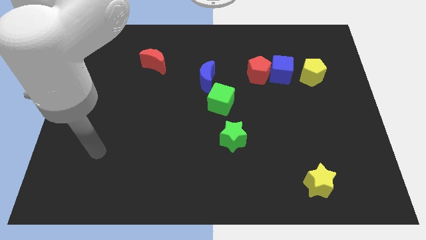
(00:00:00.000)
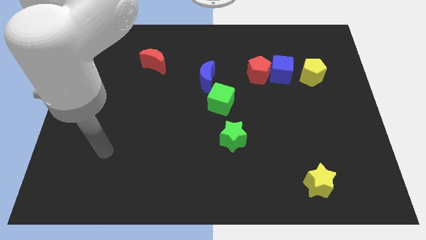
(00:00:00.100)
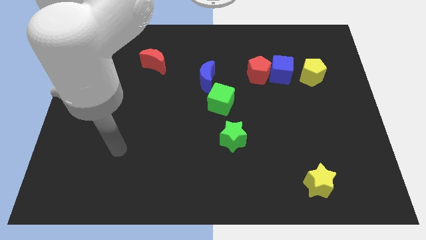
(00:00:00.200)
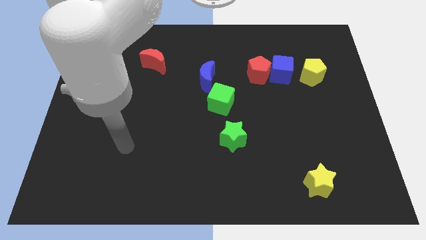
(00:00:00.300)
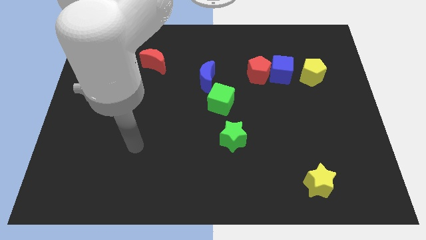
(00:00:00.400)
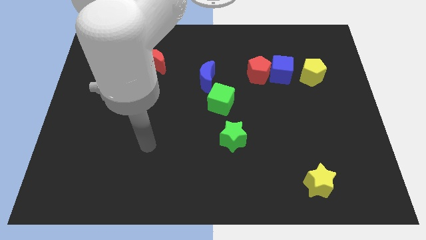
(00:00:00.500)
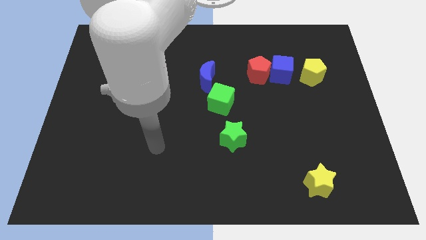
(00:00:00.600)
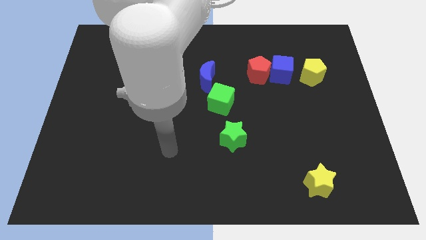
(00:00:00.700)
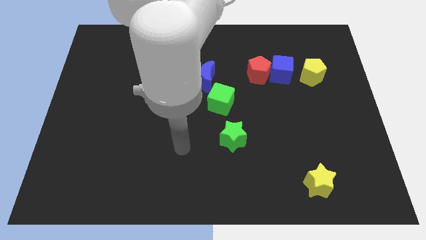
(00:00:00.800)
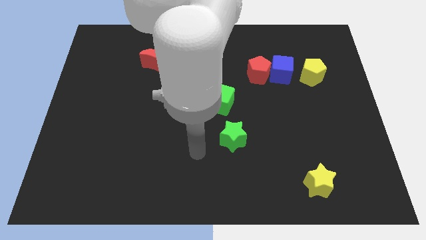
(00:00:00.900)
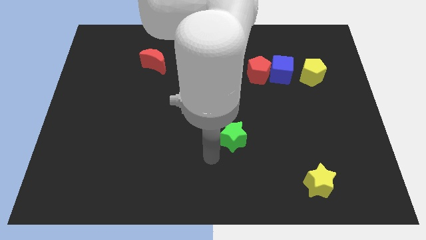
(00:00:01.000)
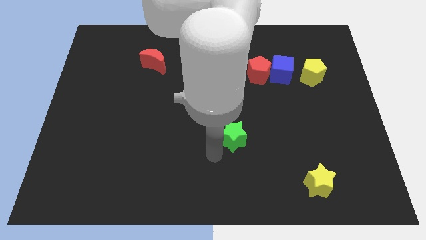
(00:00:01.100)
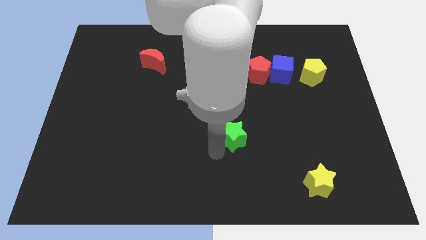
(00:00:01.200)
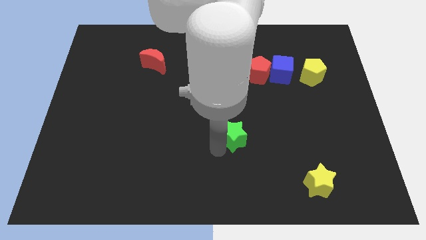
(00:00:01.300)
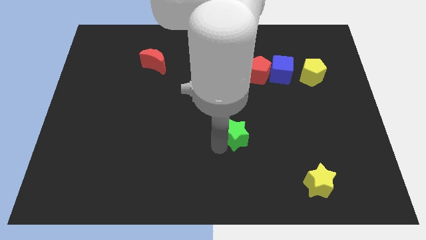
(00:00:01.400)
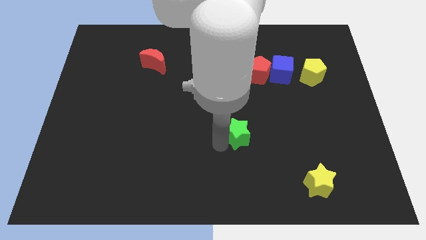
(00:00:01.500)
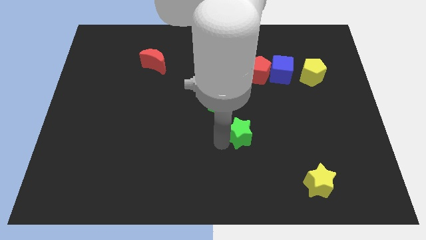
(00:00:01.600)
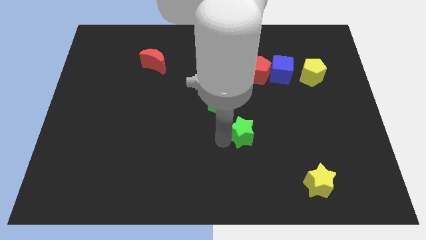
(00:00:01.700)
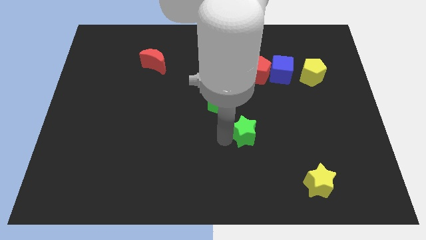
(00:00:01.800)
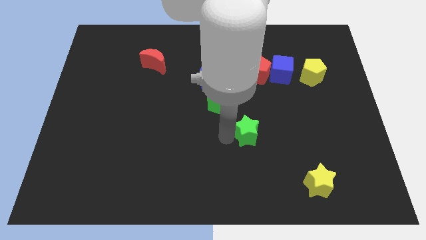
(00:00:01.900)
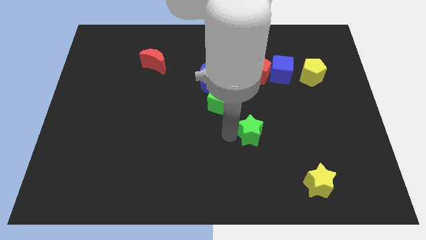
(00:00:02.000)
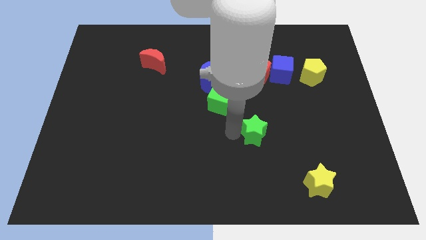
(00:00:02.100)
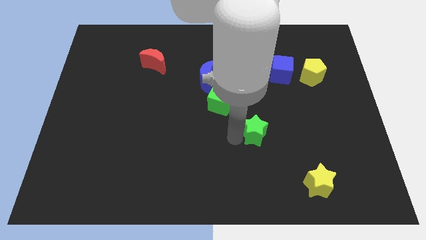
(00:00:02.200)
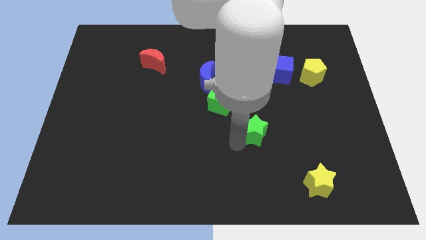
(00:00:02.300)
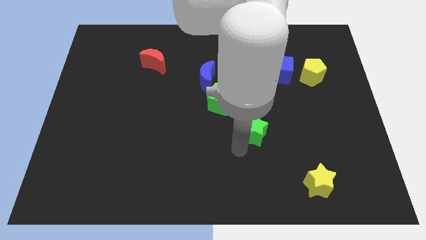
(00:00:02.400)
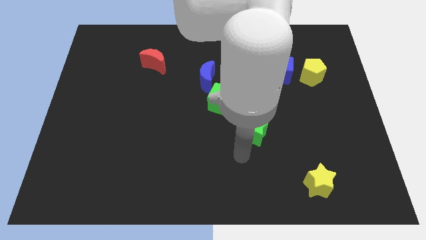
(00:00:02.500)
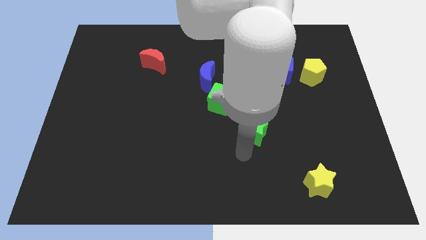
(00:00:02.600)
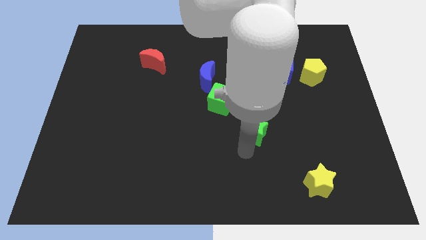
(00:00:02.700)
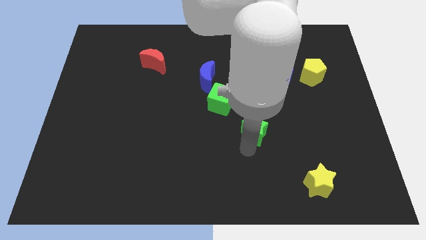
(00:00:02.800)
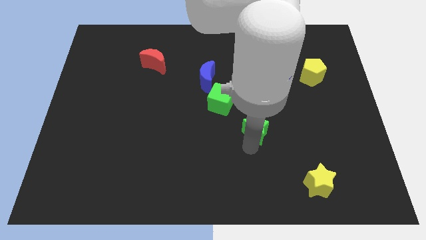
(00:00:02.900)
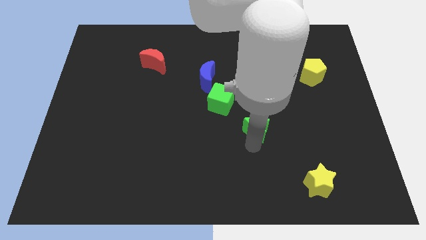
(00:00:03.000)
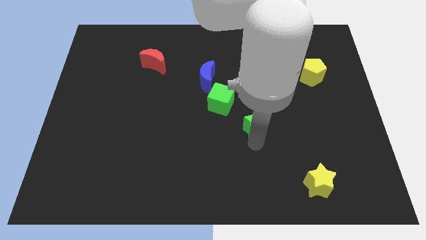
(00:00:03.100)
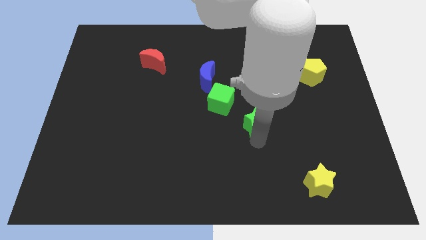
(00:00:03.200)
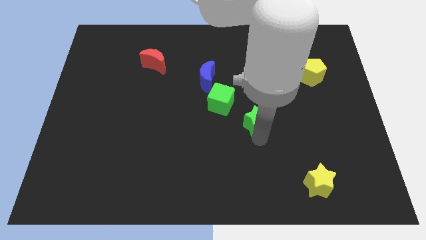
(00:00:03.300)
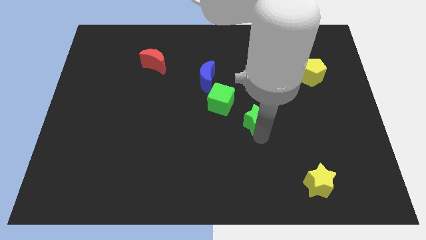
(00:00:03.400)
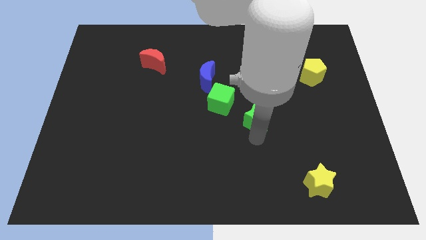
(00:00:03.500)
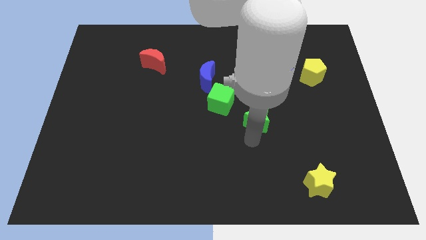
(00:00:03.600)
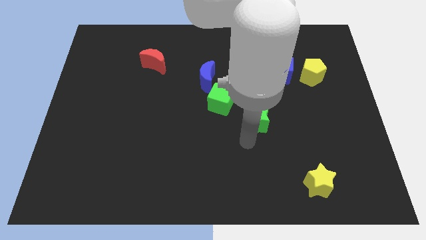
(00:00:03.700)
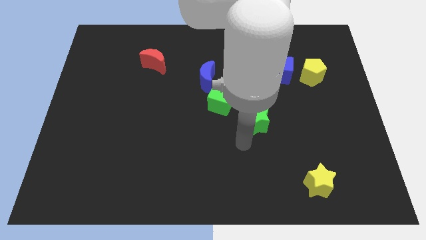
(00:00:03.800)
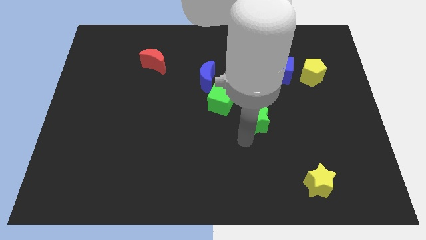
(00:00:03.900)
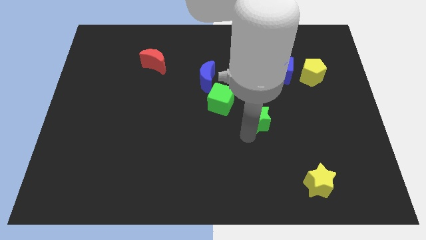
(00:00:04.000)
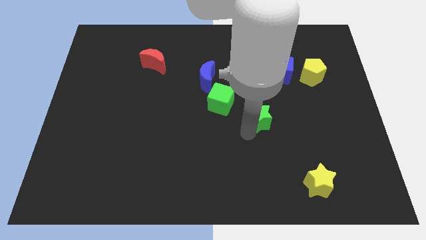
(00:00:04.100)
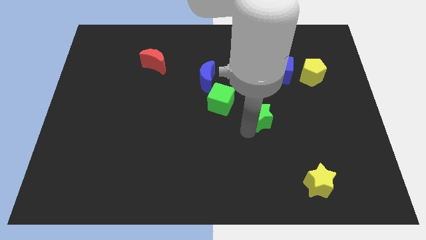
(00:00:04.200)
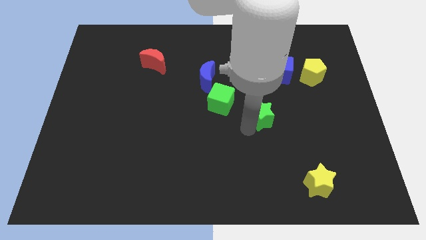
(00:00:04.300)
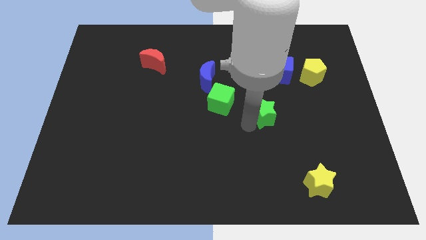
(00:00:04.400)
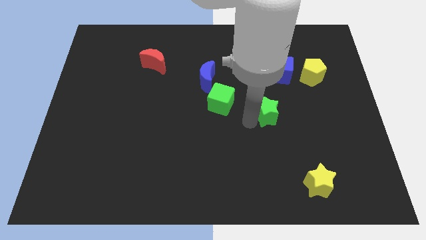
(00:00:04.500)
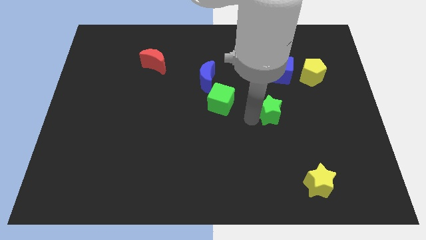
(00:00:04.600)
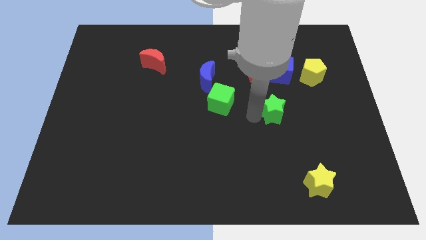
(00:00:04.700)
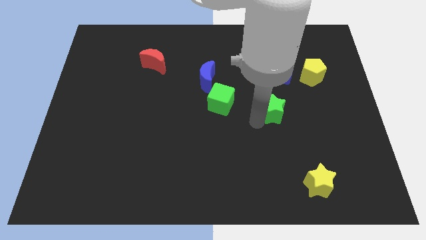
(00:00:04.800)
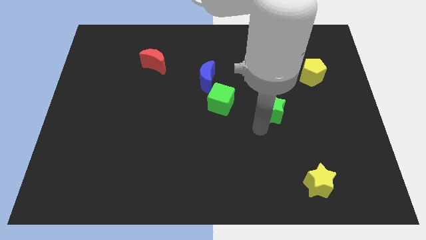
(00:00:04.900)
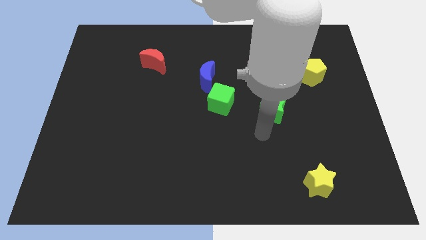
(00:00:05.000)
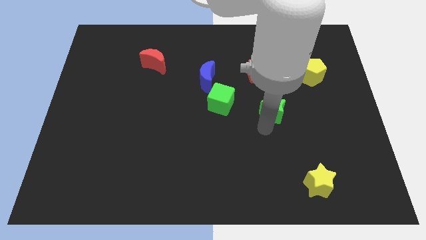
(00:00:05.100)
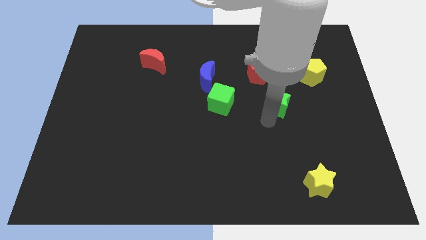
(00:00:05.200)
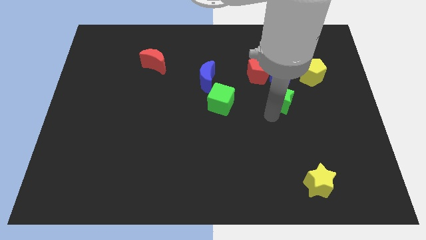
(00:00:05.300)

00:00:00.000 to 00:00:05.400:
put the green star to the bottom right of the red pentagon

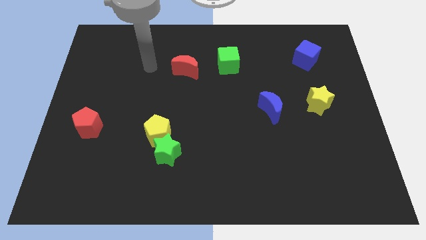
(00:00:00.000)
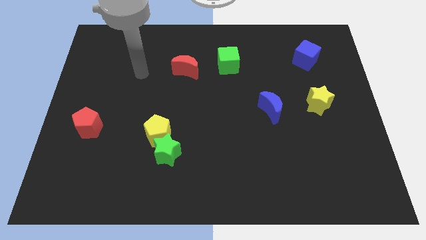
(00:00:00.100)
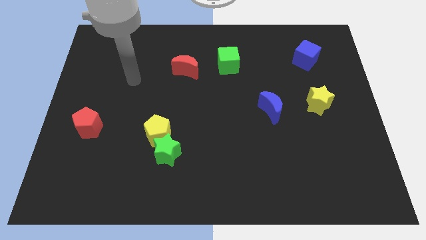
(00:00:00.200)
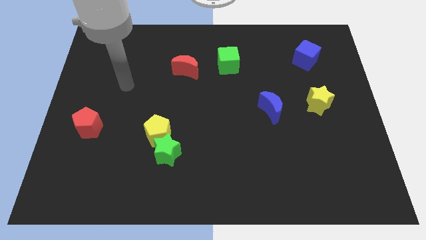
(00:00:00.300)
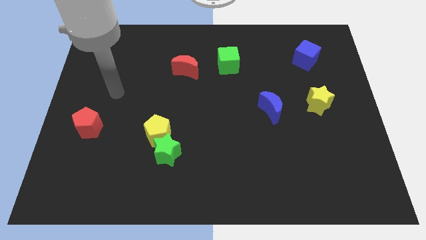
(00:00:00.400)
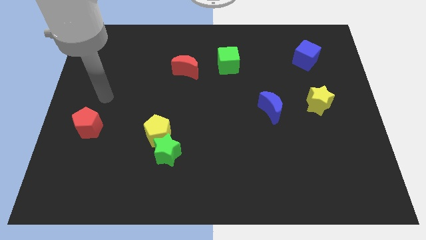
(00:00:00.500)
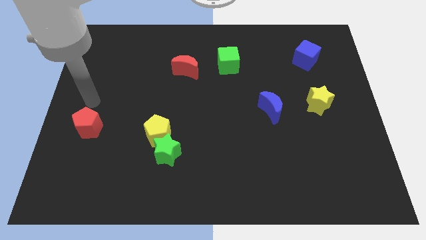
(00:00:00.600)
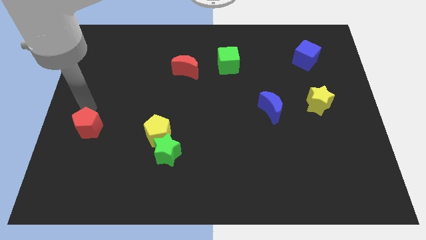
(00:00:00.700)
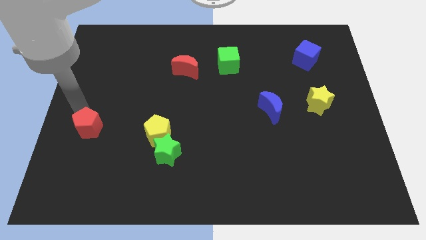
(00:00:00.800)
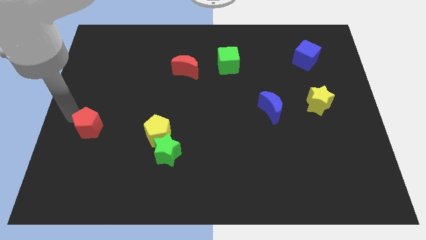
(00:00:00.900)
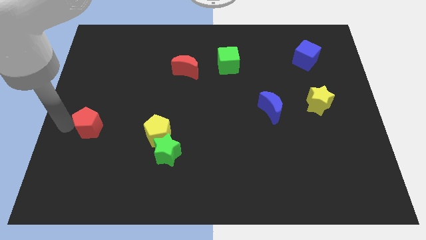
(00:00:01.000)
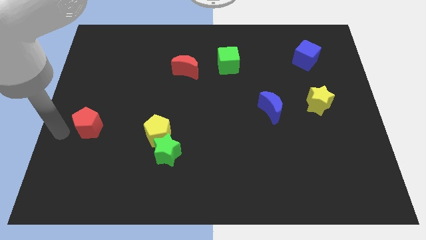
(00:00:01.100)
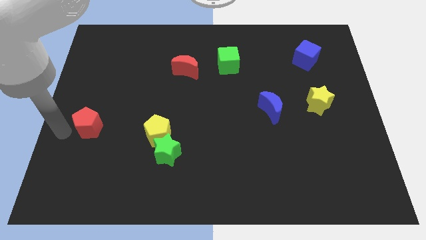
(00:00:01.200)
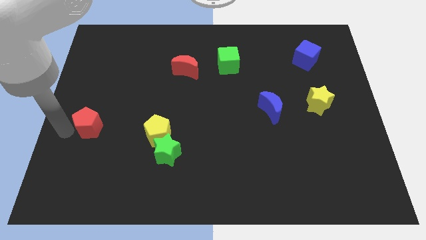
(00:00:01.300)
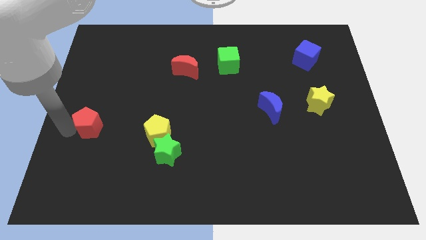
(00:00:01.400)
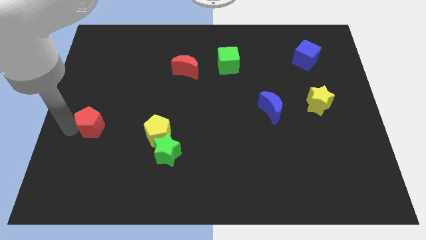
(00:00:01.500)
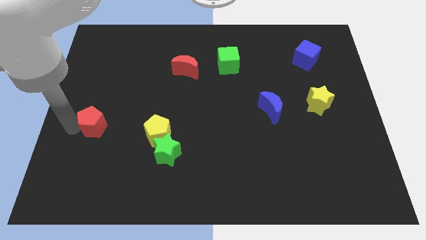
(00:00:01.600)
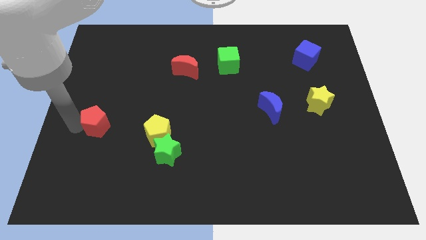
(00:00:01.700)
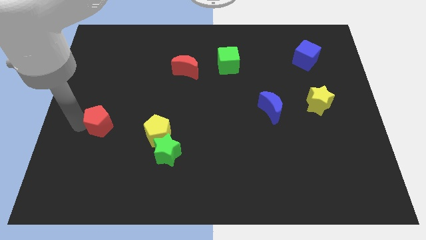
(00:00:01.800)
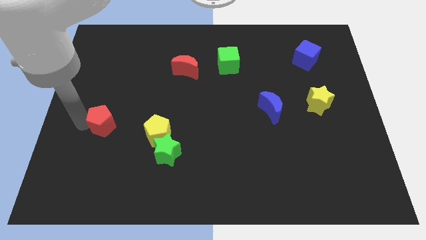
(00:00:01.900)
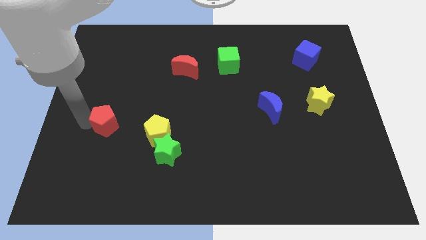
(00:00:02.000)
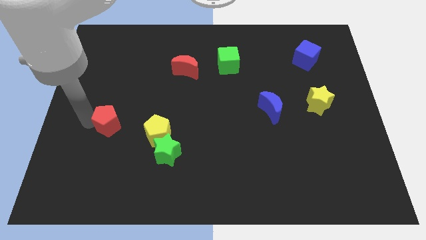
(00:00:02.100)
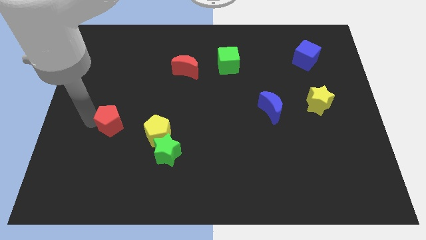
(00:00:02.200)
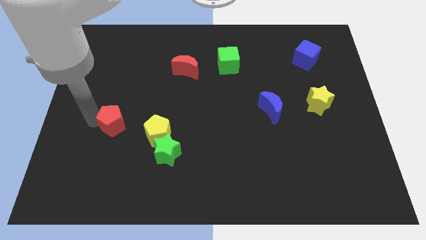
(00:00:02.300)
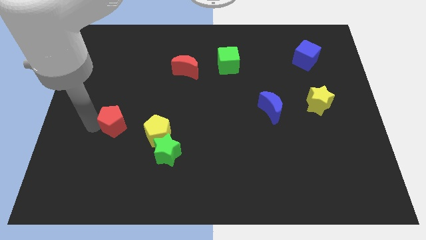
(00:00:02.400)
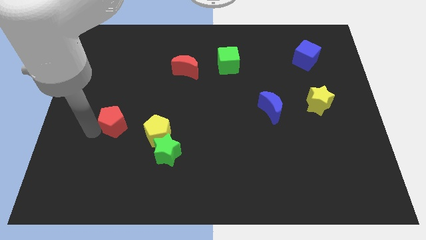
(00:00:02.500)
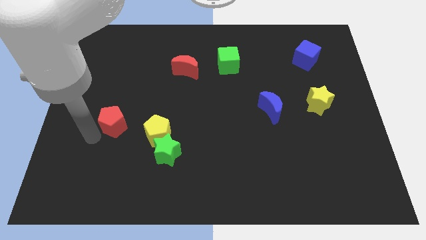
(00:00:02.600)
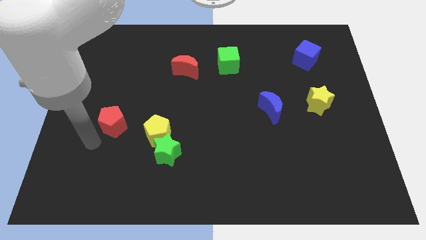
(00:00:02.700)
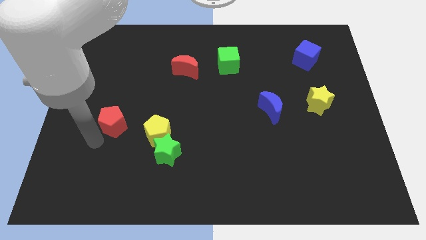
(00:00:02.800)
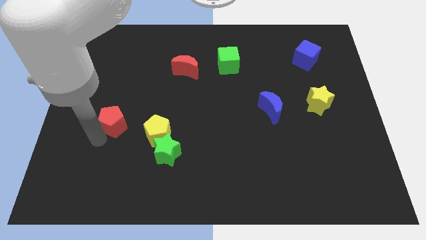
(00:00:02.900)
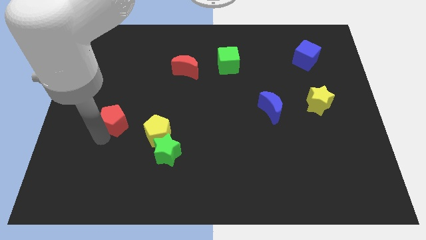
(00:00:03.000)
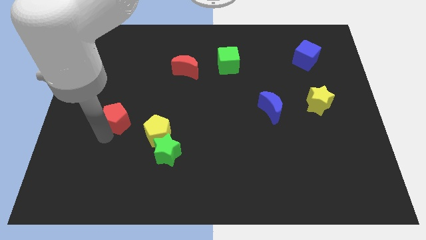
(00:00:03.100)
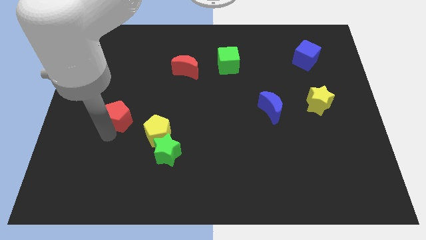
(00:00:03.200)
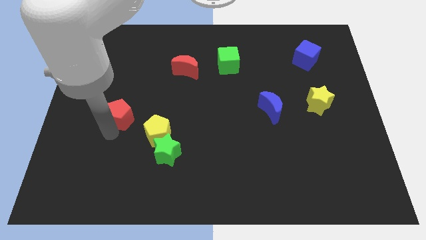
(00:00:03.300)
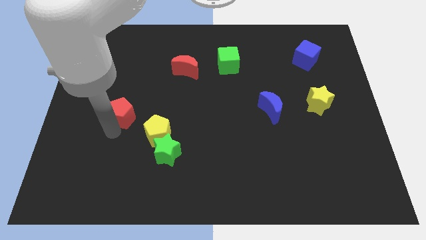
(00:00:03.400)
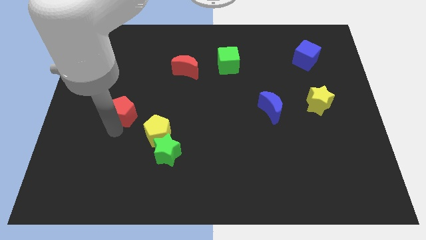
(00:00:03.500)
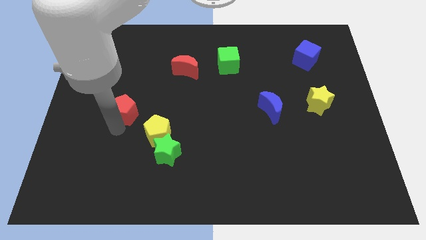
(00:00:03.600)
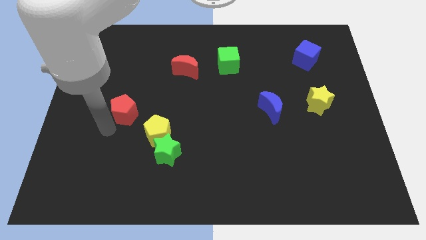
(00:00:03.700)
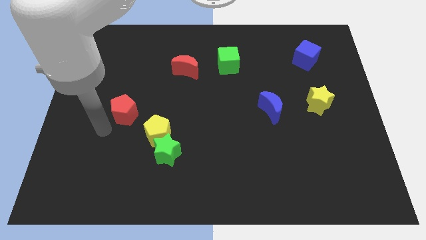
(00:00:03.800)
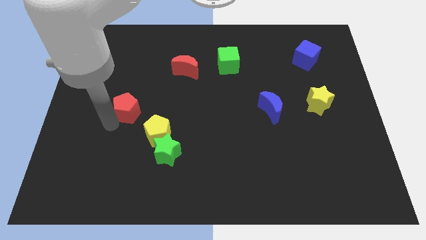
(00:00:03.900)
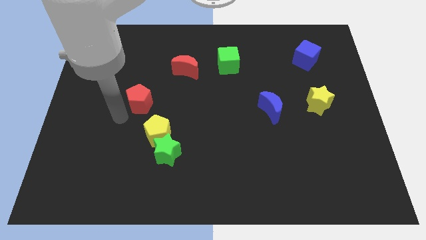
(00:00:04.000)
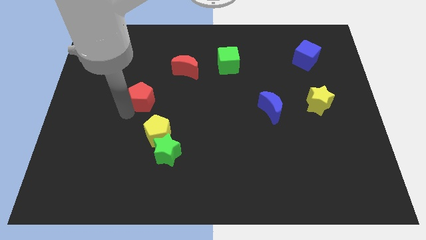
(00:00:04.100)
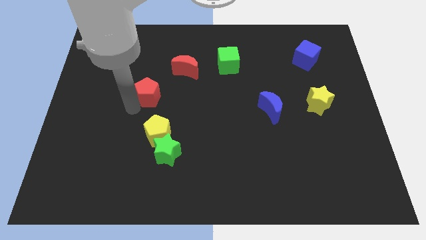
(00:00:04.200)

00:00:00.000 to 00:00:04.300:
slide the red pentagon diagonally down and to the left of the red moon
